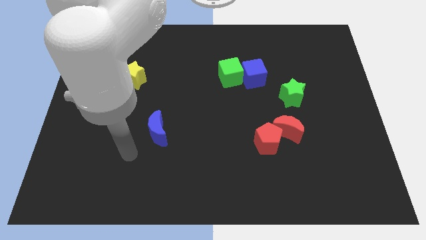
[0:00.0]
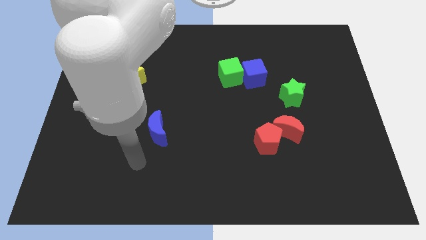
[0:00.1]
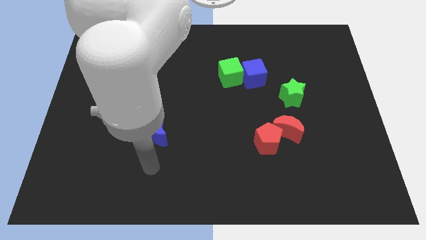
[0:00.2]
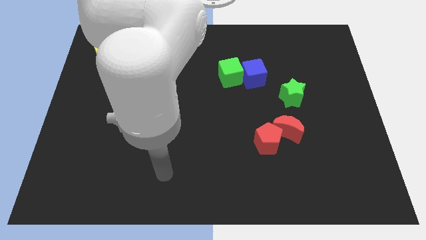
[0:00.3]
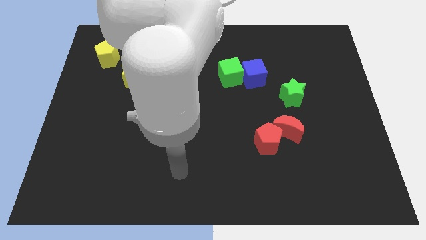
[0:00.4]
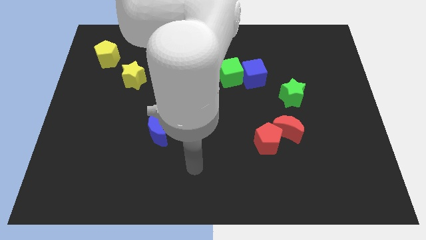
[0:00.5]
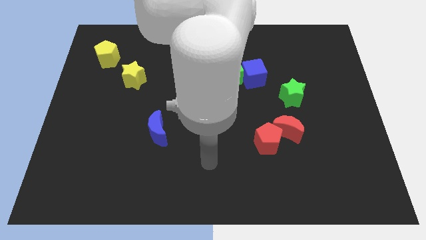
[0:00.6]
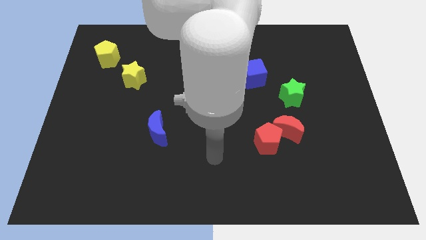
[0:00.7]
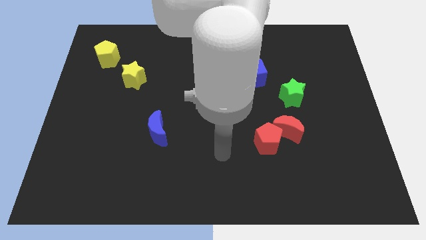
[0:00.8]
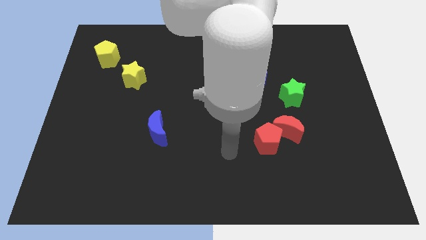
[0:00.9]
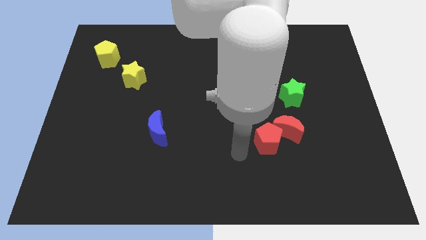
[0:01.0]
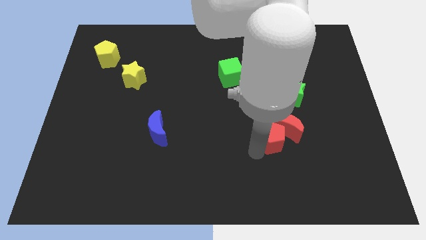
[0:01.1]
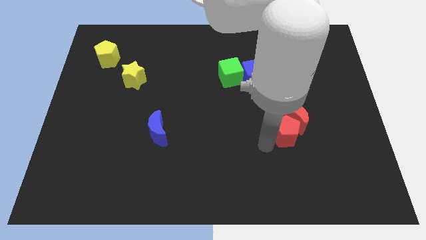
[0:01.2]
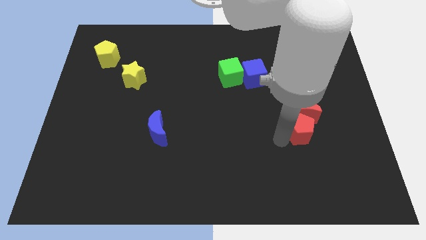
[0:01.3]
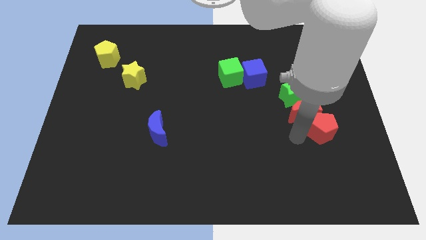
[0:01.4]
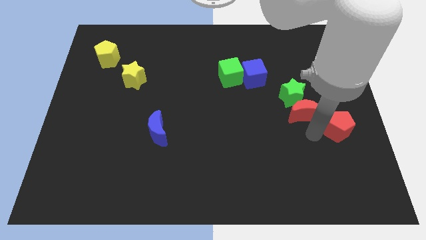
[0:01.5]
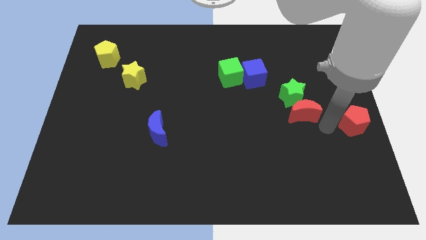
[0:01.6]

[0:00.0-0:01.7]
pull the red moon apart from the red pentagon

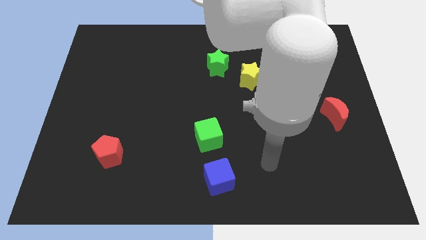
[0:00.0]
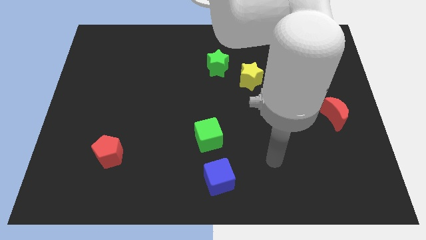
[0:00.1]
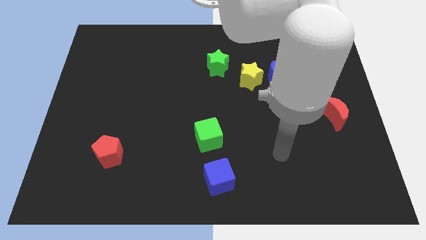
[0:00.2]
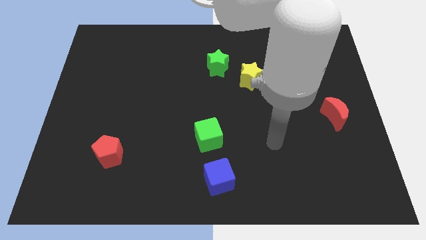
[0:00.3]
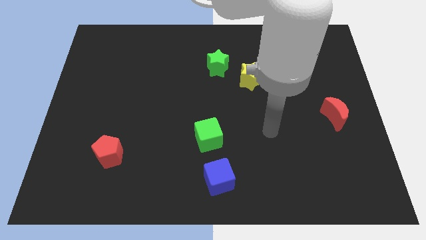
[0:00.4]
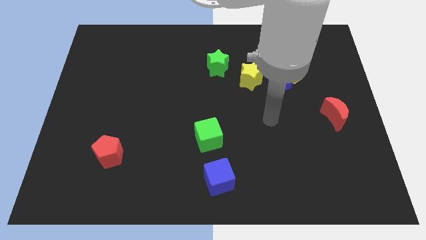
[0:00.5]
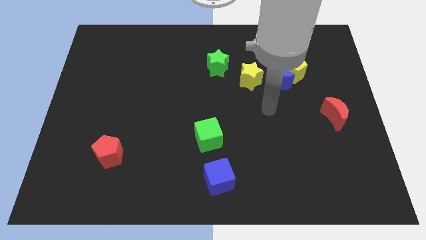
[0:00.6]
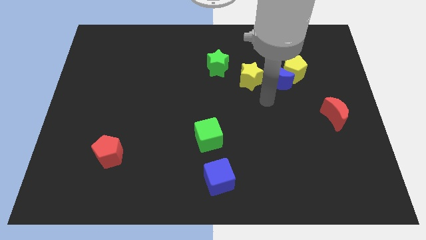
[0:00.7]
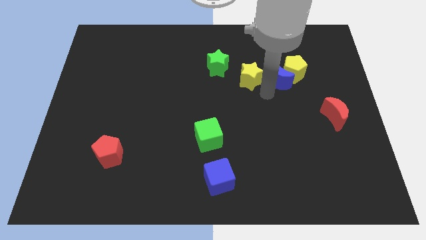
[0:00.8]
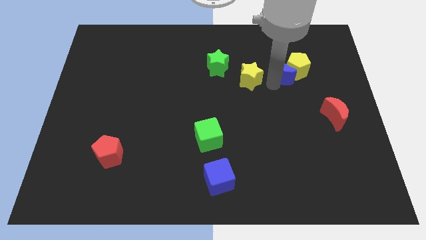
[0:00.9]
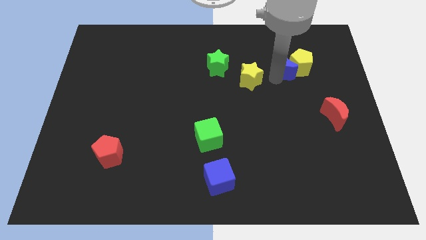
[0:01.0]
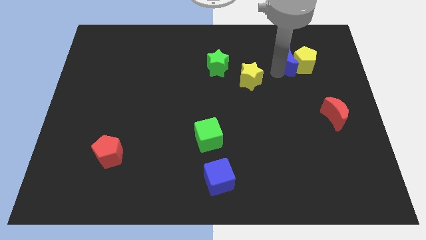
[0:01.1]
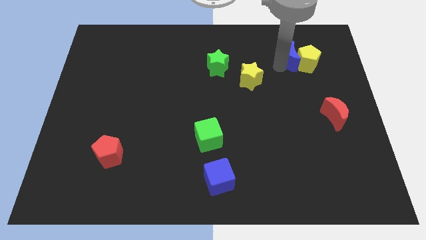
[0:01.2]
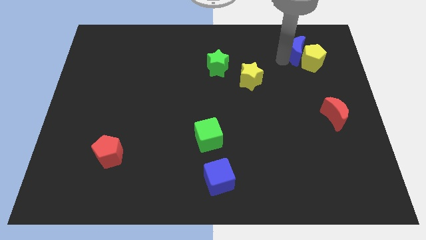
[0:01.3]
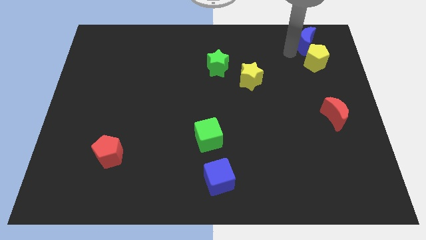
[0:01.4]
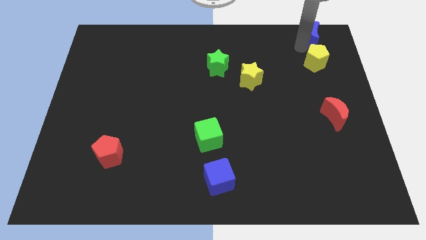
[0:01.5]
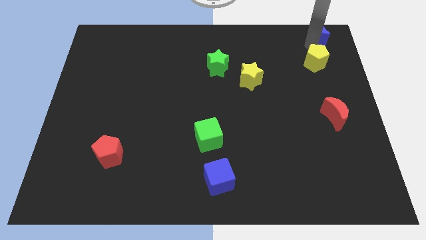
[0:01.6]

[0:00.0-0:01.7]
move the yellow pentagon away from the blue moon

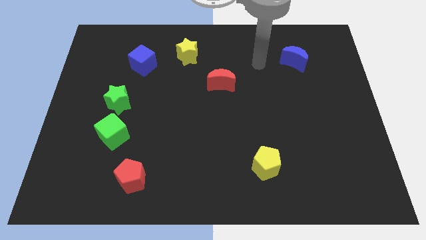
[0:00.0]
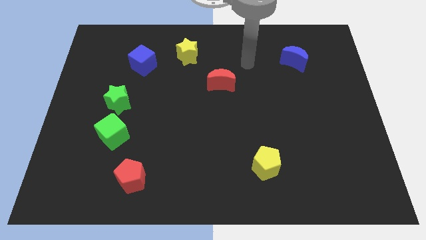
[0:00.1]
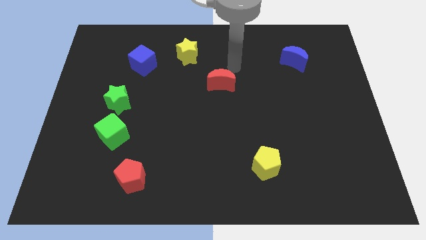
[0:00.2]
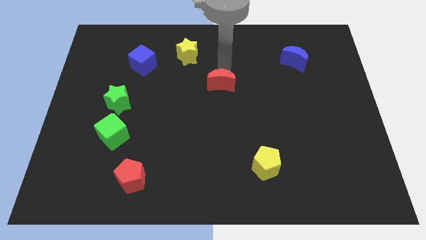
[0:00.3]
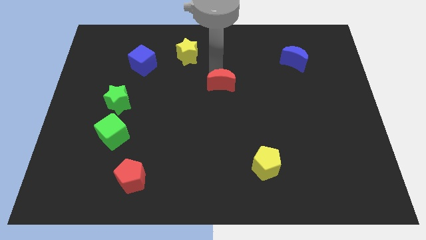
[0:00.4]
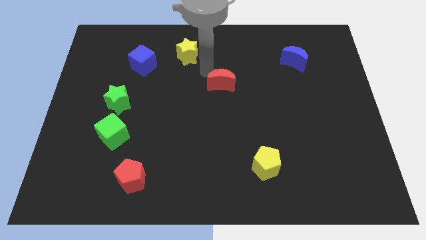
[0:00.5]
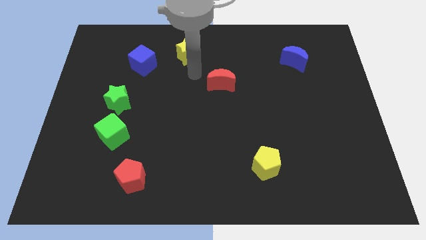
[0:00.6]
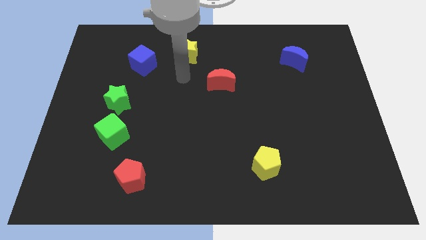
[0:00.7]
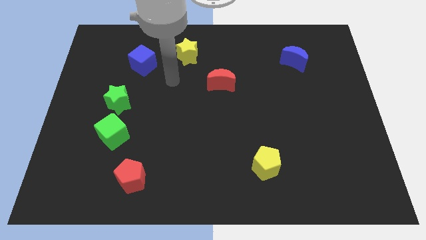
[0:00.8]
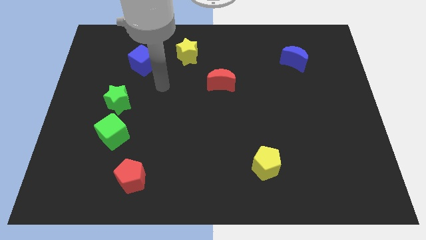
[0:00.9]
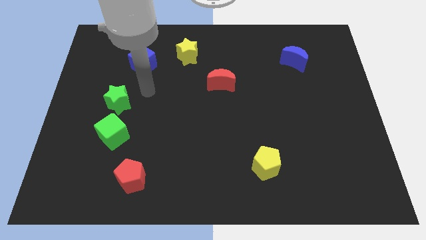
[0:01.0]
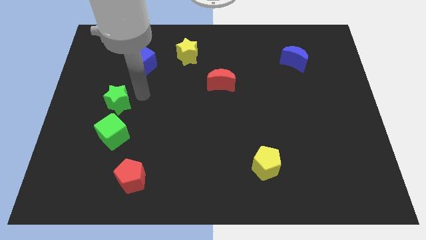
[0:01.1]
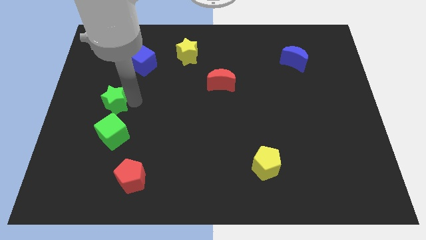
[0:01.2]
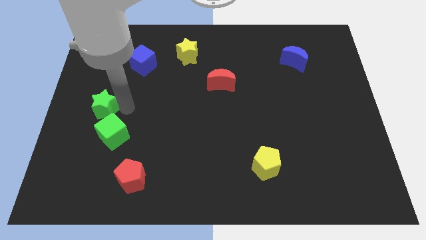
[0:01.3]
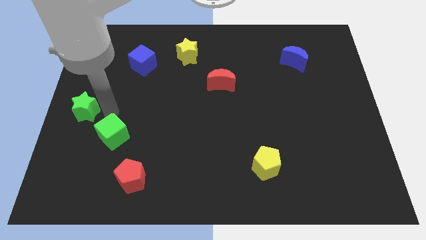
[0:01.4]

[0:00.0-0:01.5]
move the green cube away from the green star

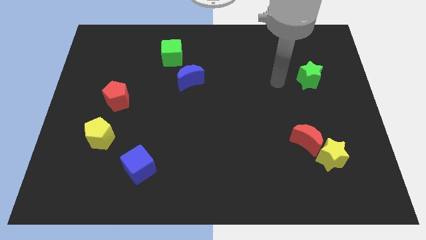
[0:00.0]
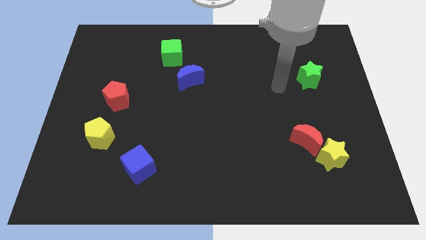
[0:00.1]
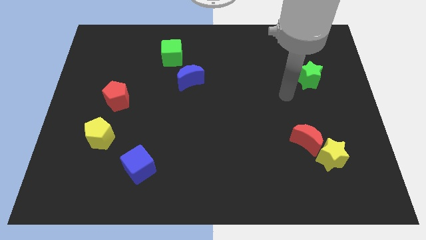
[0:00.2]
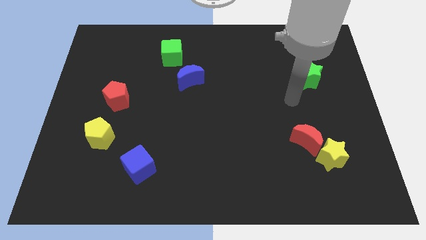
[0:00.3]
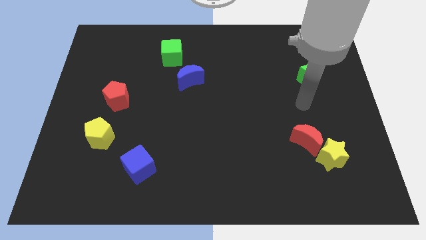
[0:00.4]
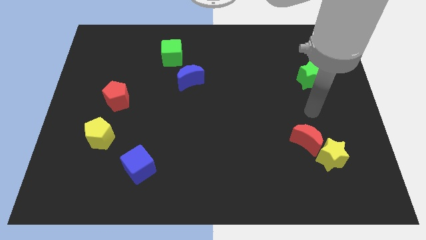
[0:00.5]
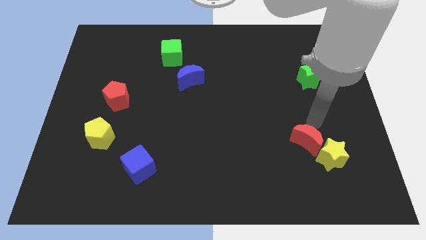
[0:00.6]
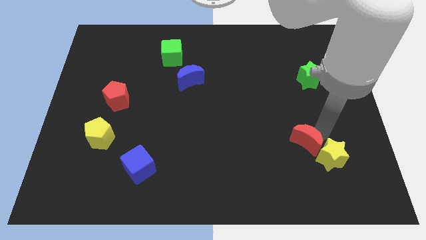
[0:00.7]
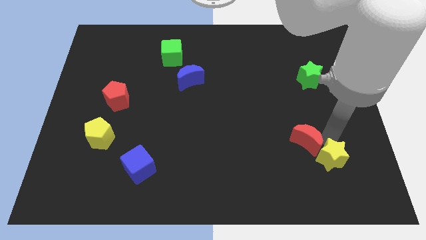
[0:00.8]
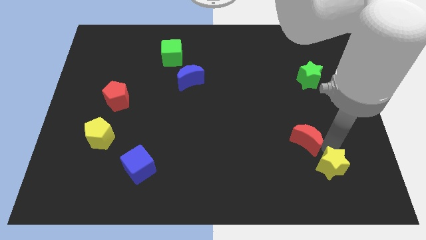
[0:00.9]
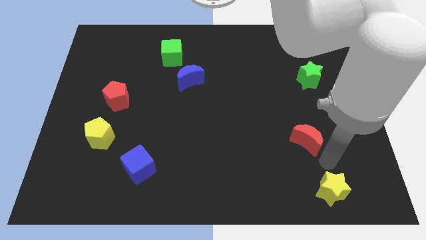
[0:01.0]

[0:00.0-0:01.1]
separate the red moon from the yellow star

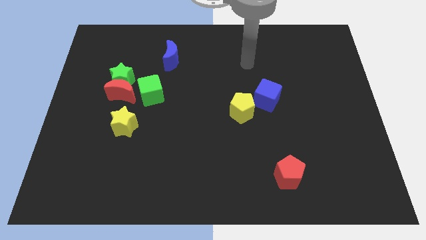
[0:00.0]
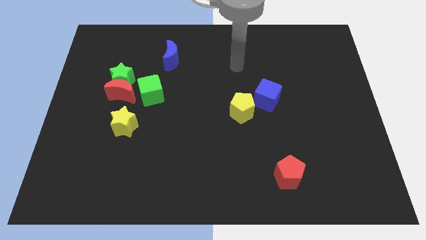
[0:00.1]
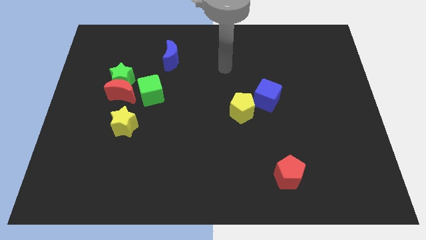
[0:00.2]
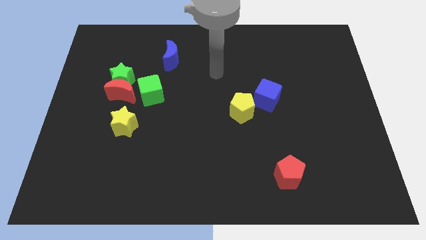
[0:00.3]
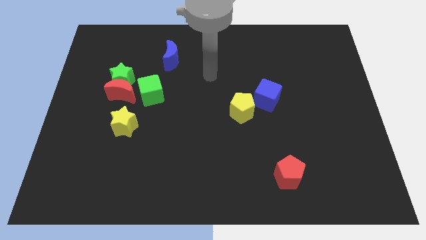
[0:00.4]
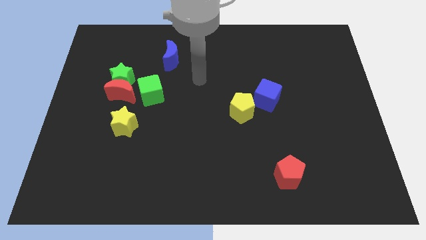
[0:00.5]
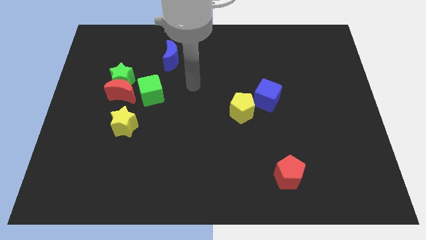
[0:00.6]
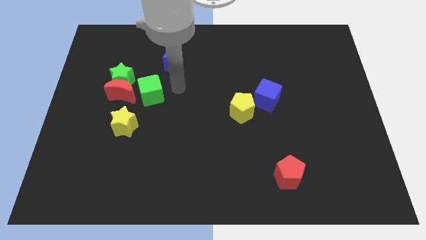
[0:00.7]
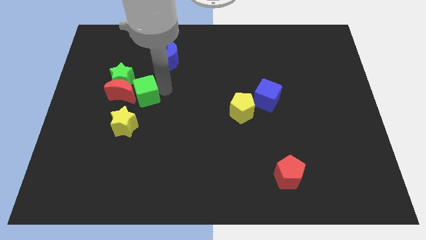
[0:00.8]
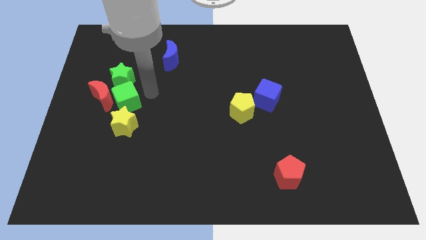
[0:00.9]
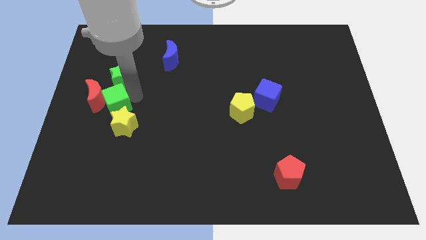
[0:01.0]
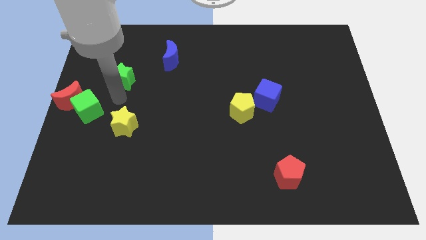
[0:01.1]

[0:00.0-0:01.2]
separate the green star from the red moon and green cube

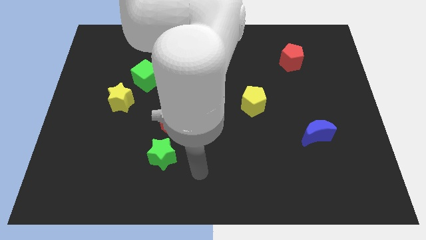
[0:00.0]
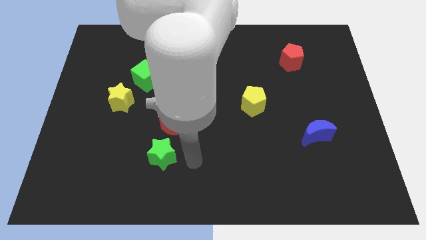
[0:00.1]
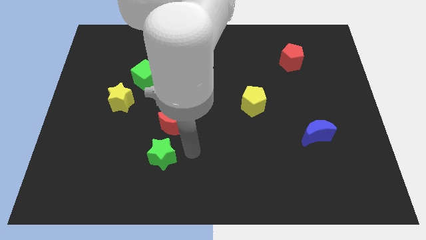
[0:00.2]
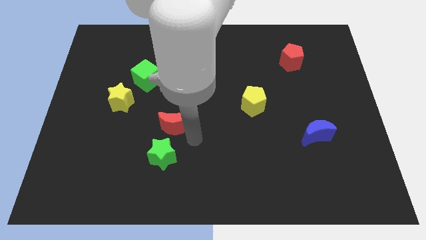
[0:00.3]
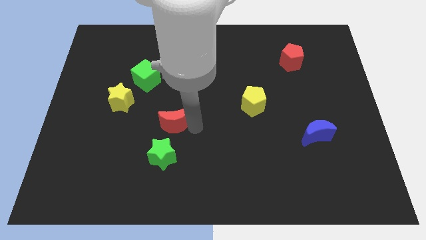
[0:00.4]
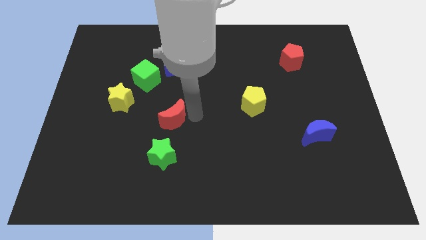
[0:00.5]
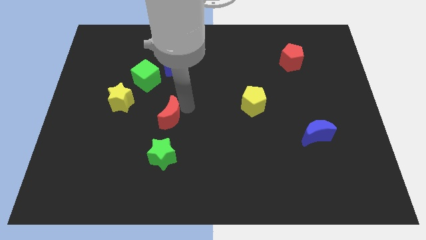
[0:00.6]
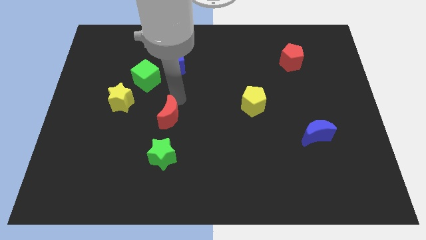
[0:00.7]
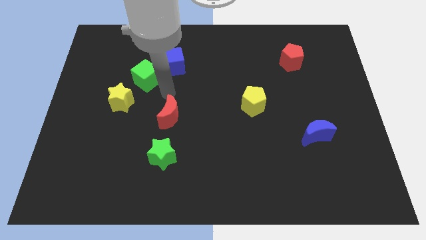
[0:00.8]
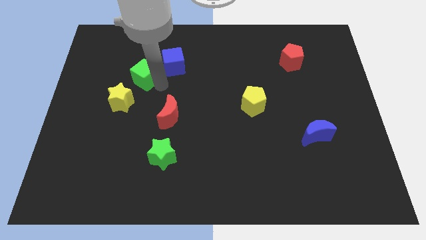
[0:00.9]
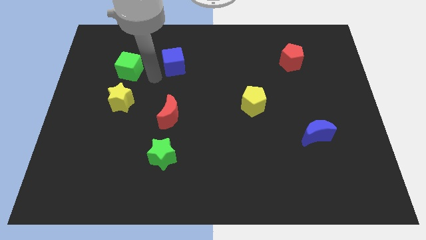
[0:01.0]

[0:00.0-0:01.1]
separate the blue cube from the green cube

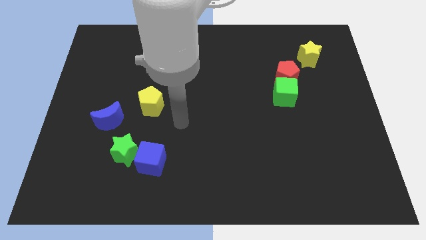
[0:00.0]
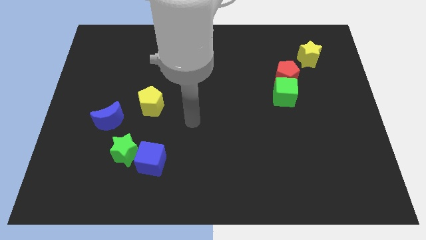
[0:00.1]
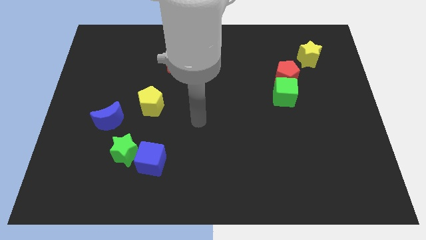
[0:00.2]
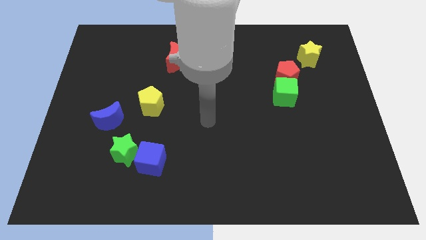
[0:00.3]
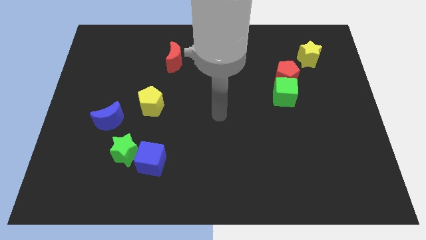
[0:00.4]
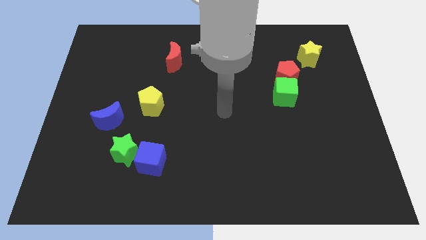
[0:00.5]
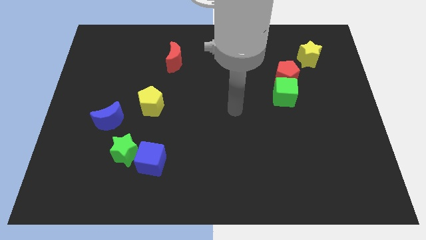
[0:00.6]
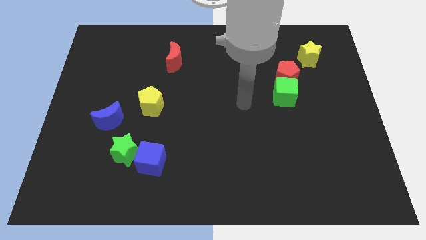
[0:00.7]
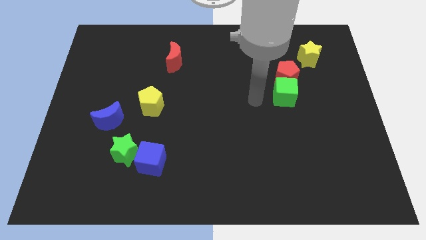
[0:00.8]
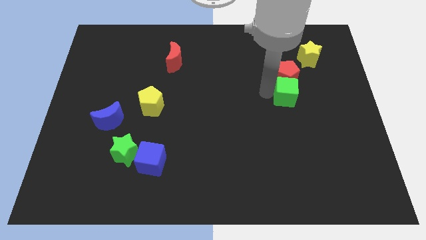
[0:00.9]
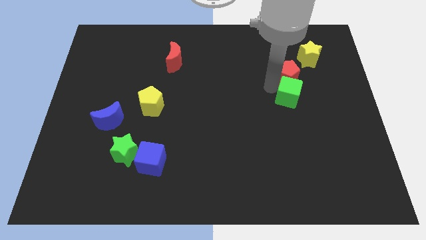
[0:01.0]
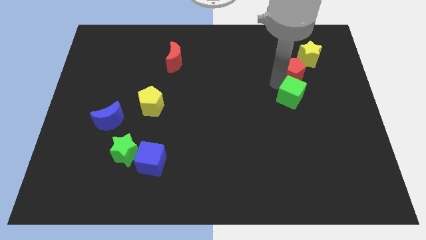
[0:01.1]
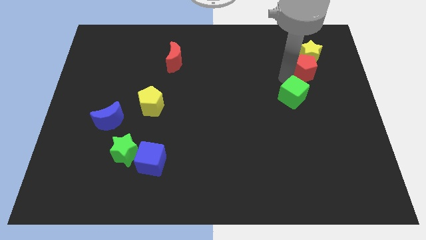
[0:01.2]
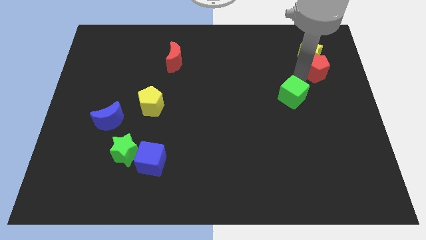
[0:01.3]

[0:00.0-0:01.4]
move the green cube away from the red pentagon
